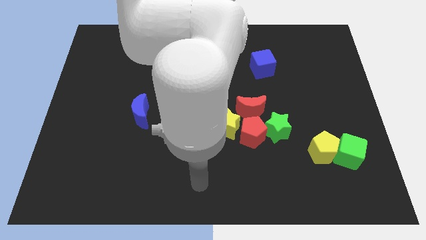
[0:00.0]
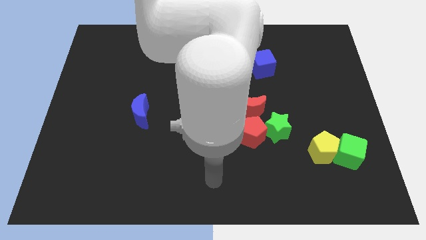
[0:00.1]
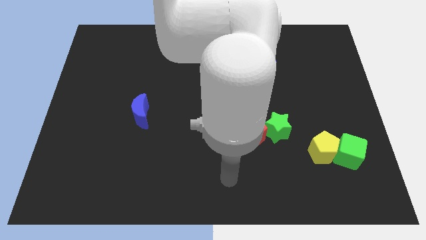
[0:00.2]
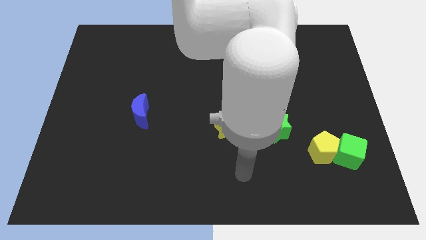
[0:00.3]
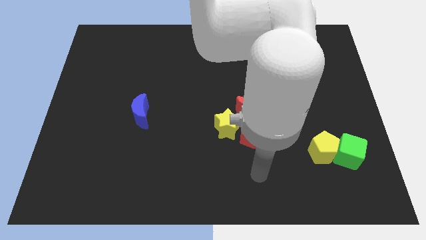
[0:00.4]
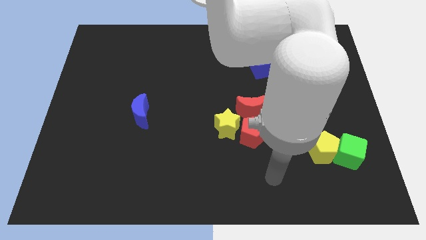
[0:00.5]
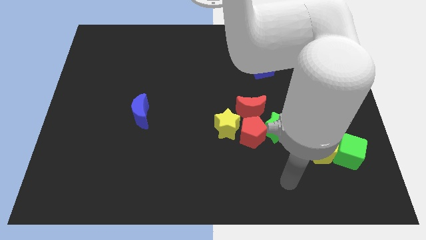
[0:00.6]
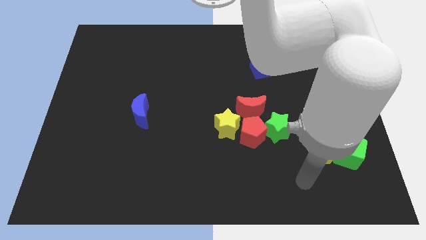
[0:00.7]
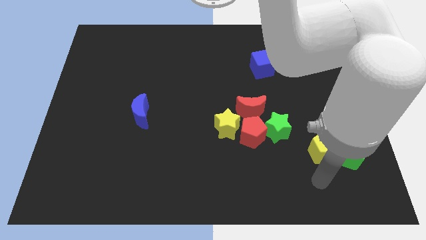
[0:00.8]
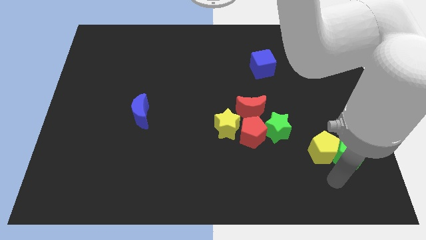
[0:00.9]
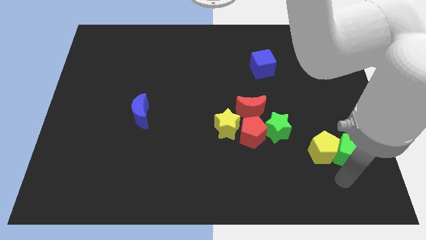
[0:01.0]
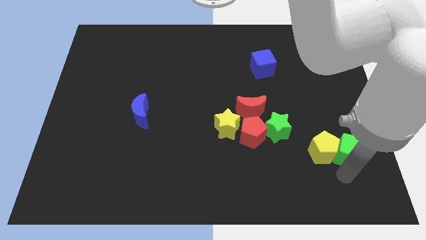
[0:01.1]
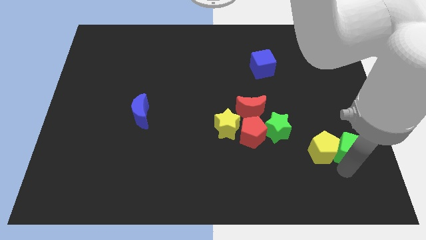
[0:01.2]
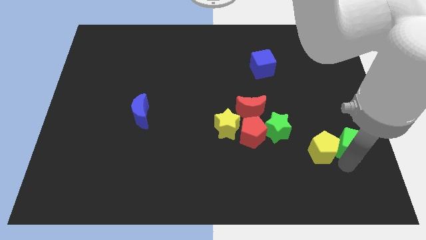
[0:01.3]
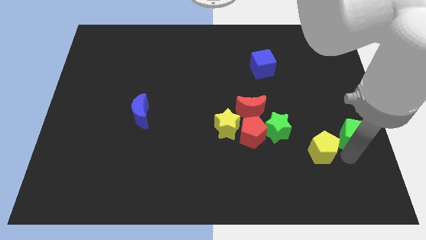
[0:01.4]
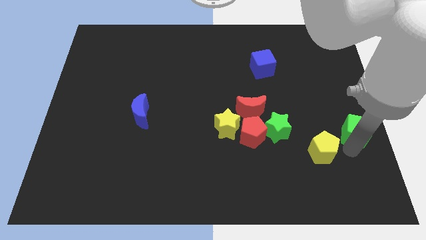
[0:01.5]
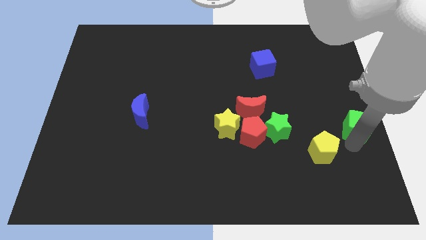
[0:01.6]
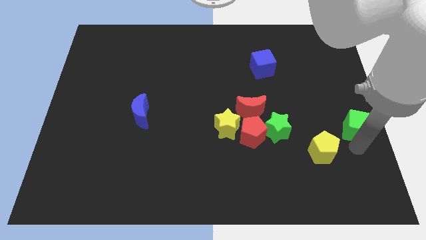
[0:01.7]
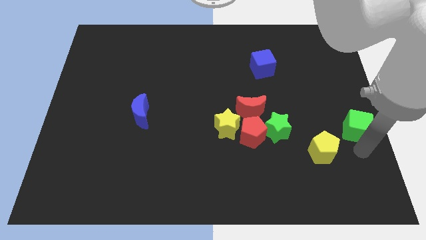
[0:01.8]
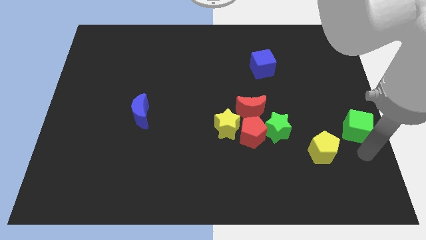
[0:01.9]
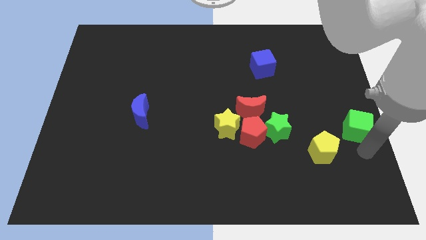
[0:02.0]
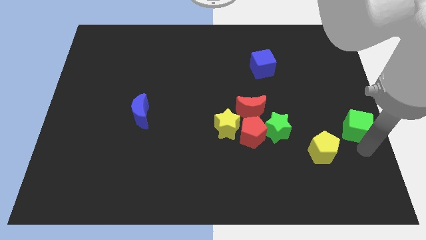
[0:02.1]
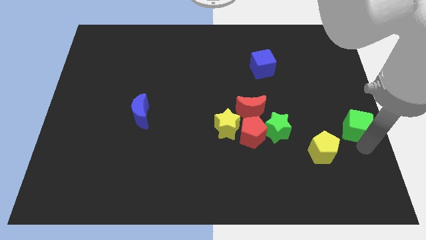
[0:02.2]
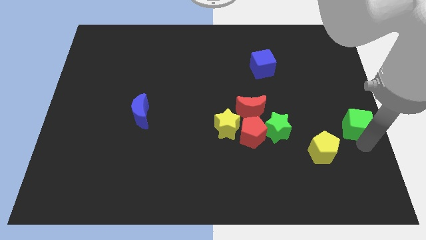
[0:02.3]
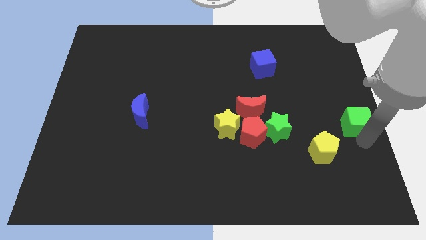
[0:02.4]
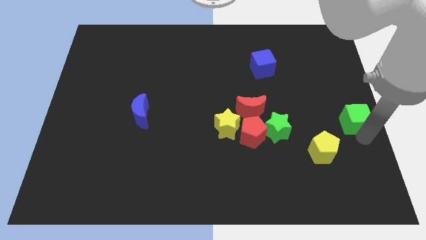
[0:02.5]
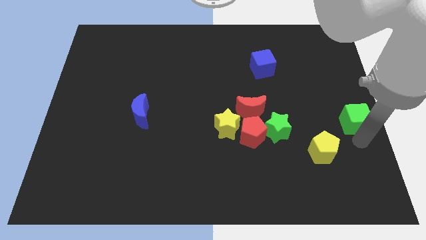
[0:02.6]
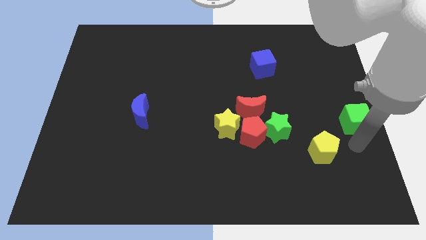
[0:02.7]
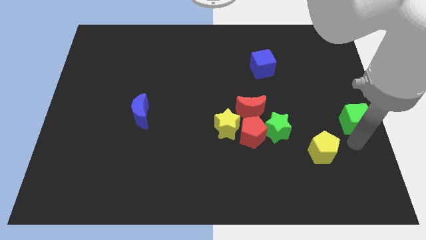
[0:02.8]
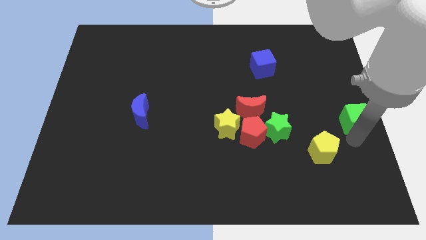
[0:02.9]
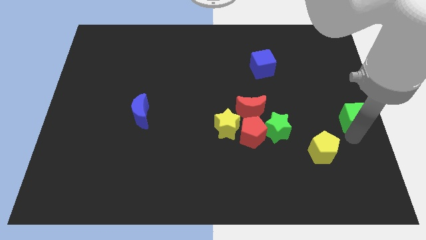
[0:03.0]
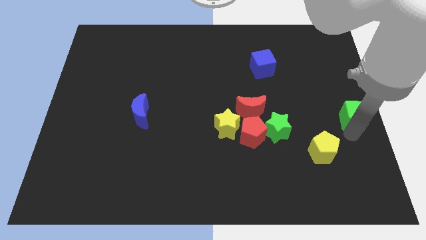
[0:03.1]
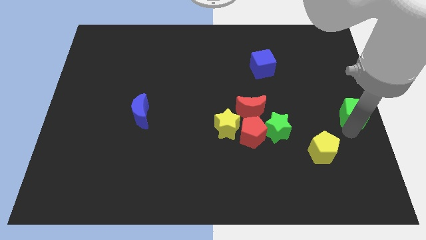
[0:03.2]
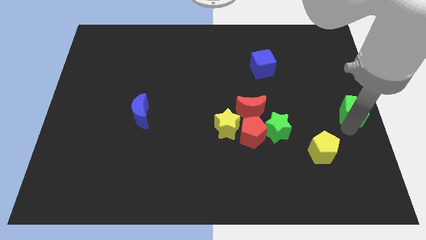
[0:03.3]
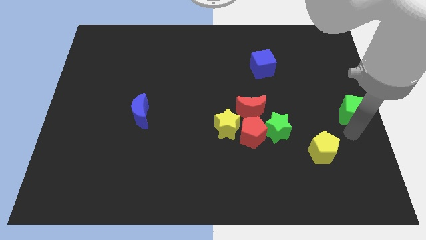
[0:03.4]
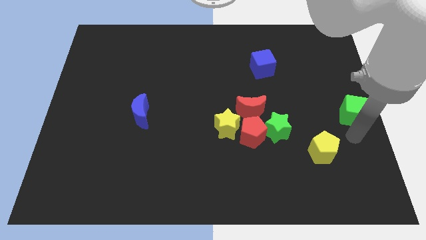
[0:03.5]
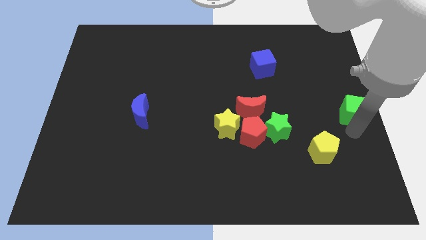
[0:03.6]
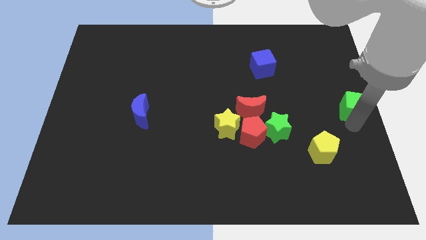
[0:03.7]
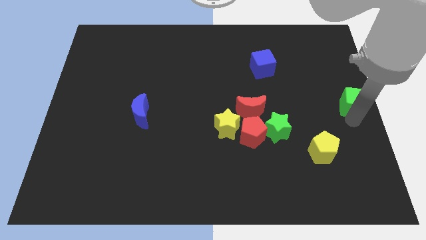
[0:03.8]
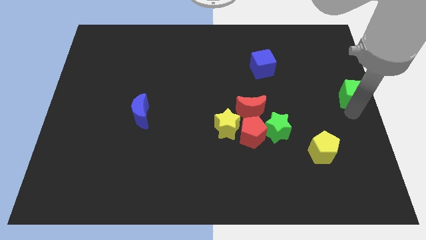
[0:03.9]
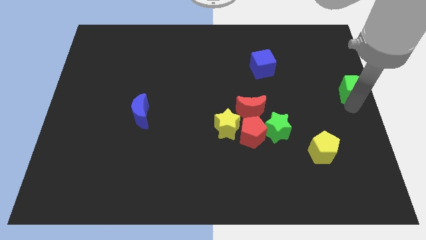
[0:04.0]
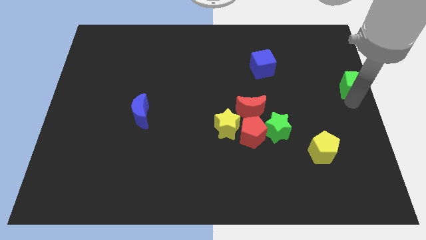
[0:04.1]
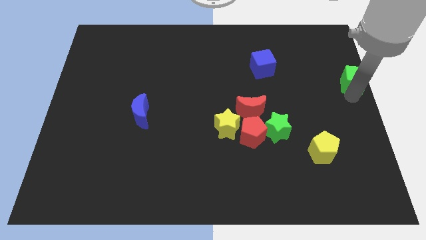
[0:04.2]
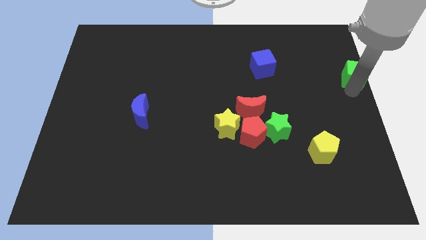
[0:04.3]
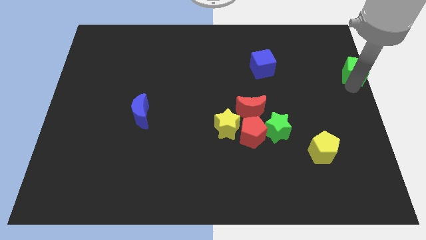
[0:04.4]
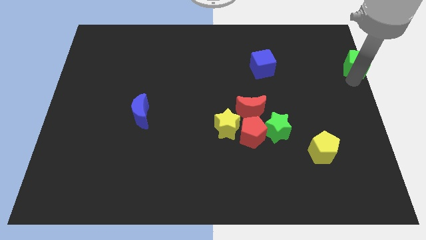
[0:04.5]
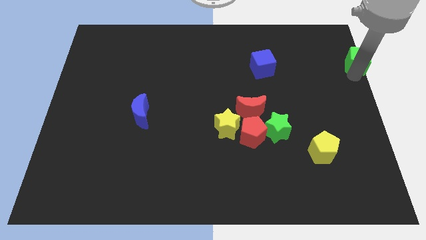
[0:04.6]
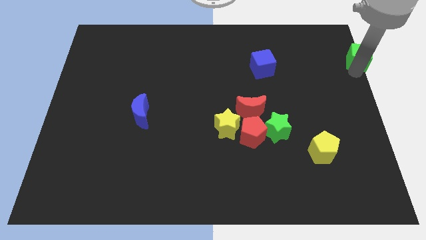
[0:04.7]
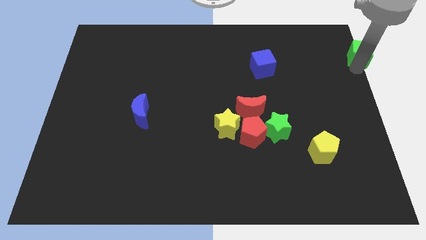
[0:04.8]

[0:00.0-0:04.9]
push the green cube to the top right corner
